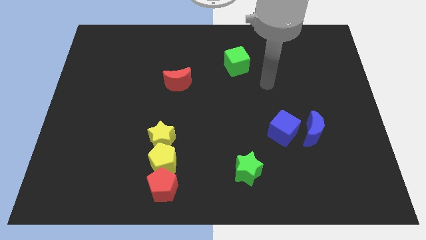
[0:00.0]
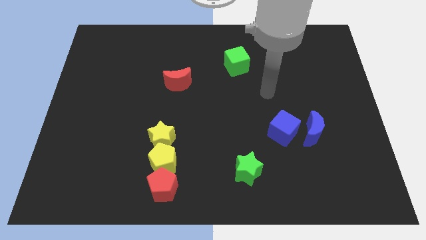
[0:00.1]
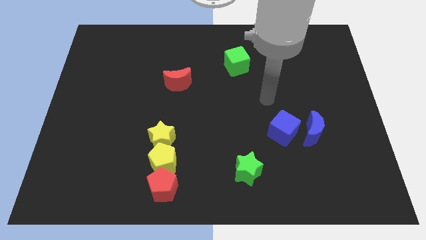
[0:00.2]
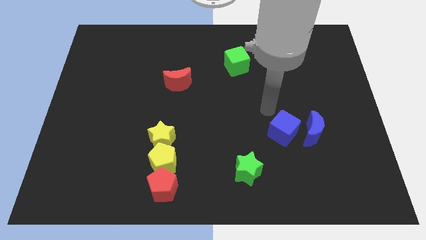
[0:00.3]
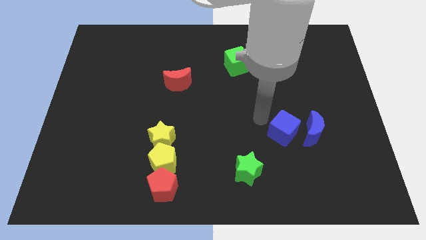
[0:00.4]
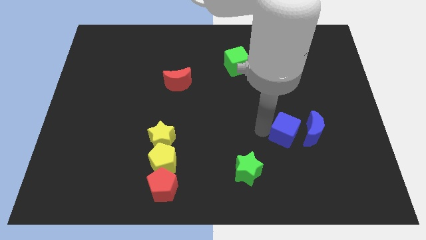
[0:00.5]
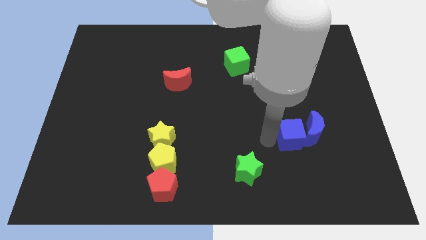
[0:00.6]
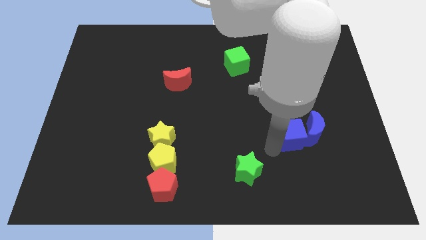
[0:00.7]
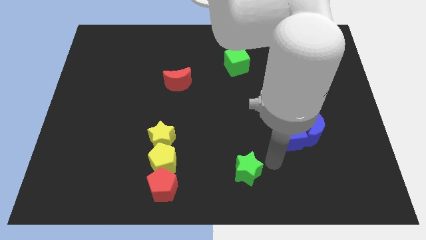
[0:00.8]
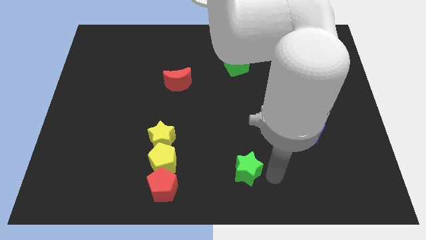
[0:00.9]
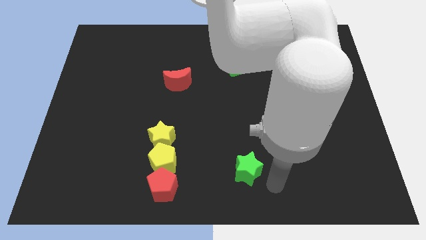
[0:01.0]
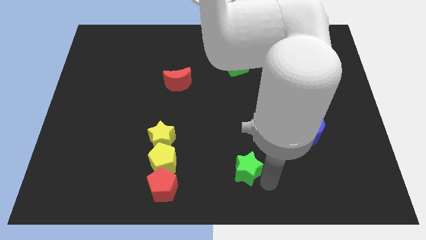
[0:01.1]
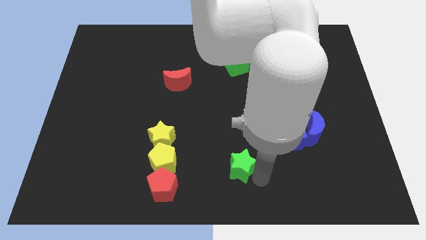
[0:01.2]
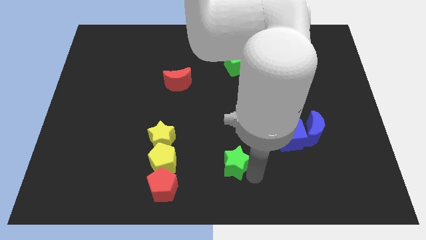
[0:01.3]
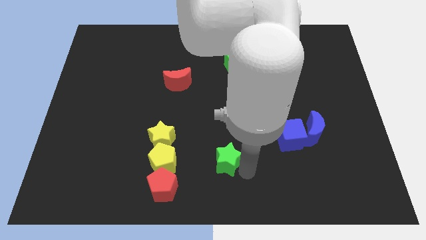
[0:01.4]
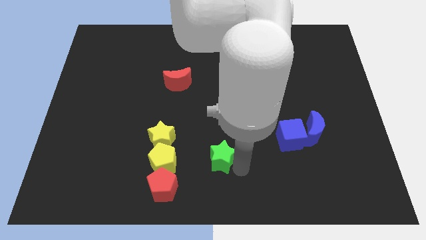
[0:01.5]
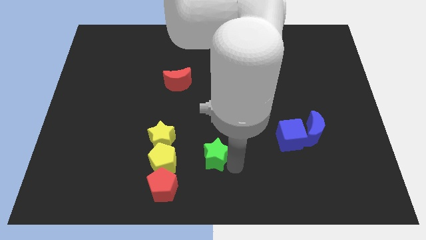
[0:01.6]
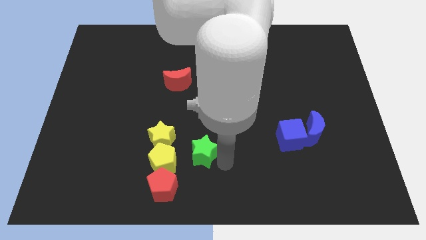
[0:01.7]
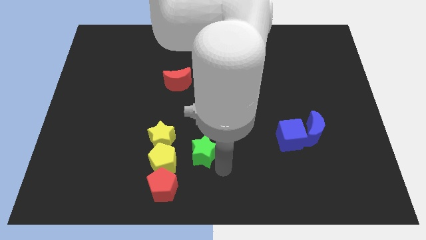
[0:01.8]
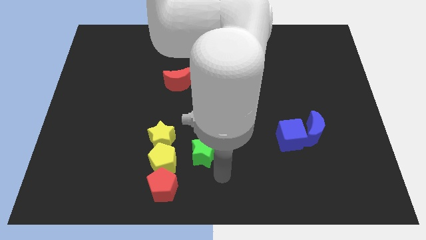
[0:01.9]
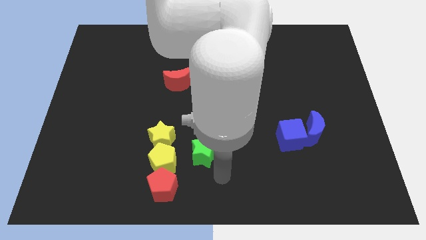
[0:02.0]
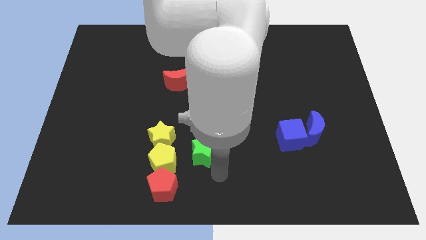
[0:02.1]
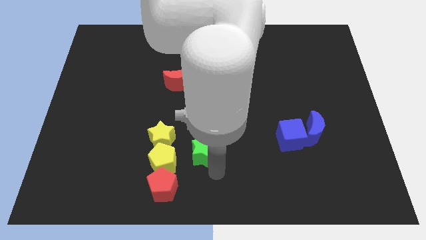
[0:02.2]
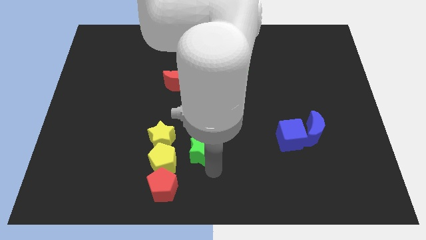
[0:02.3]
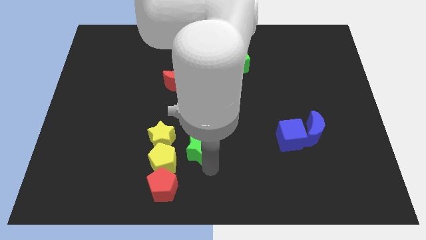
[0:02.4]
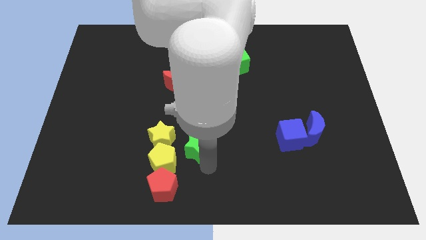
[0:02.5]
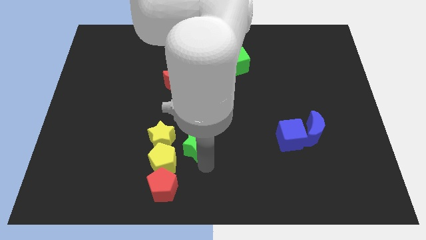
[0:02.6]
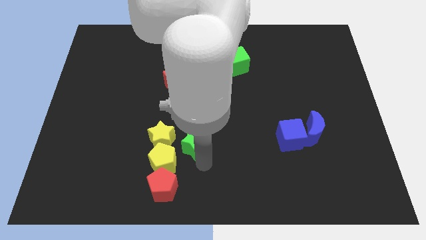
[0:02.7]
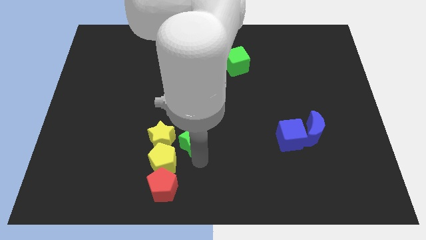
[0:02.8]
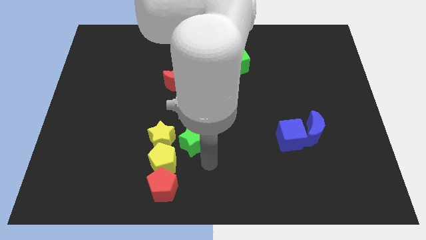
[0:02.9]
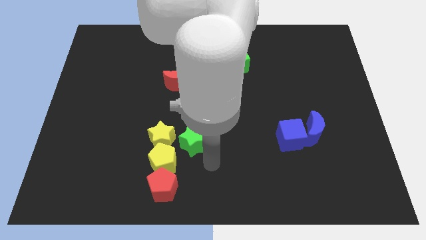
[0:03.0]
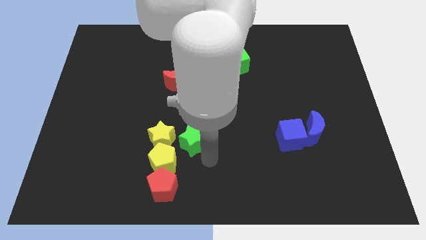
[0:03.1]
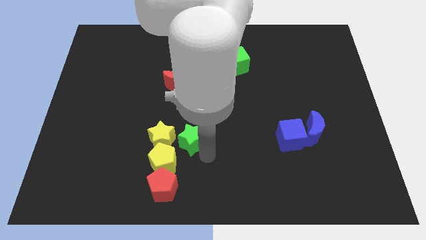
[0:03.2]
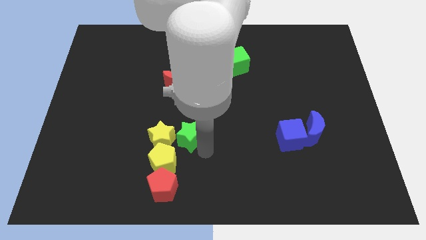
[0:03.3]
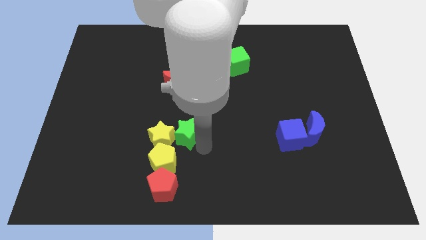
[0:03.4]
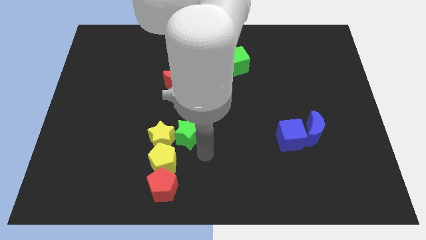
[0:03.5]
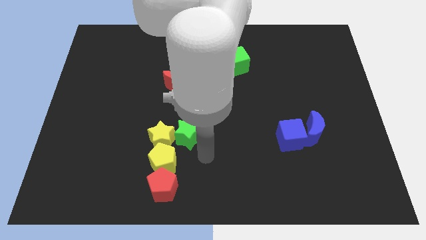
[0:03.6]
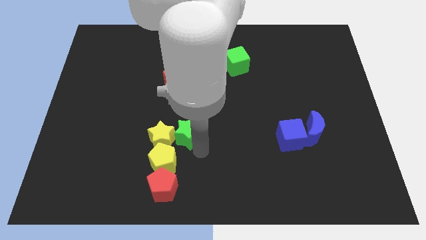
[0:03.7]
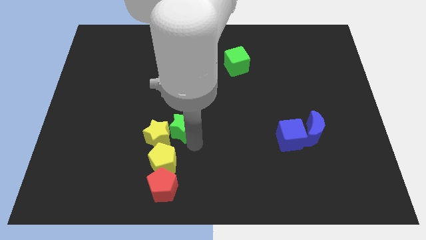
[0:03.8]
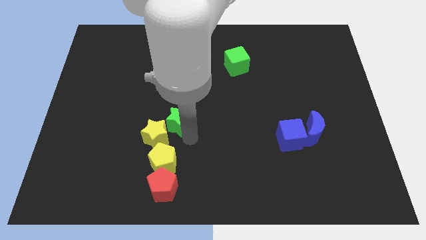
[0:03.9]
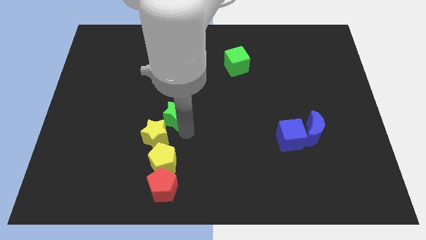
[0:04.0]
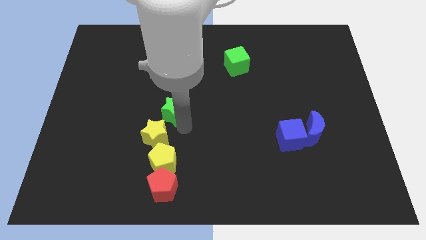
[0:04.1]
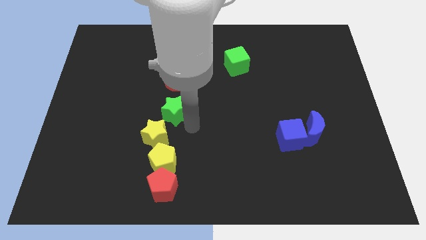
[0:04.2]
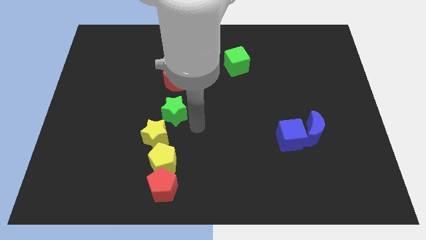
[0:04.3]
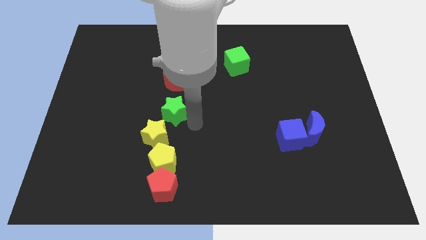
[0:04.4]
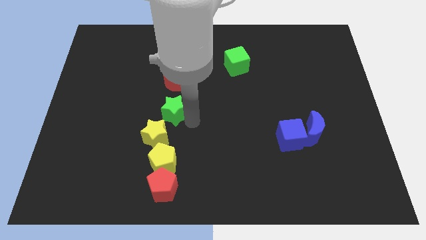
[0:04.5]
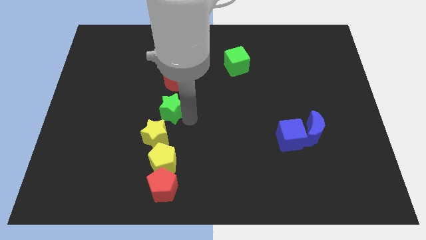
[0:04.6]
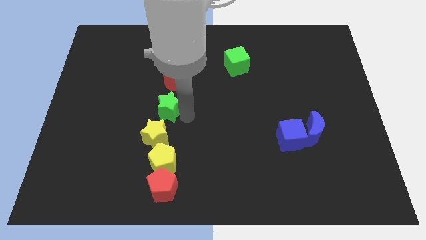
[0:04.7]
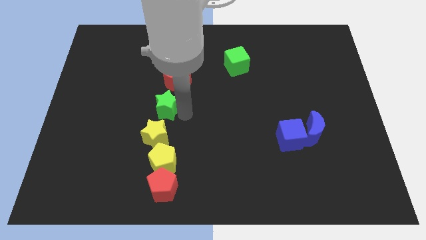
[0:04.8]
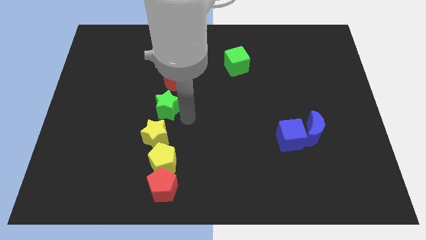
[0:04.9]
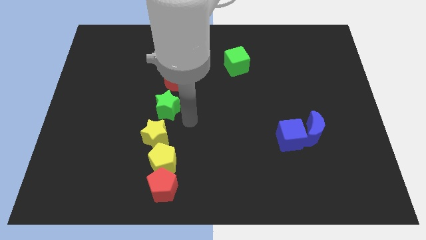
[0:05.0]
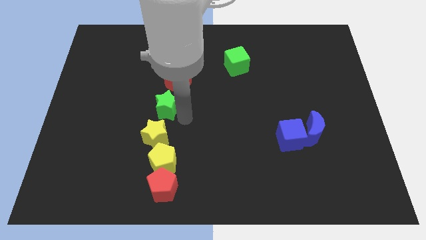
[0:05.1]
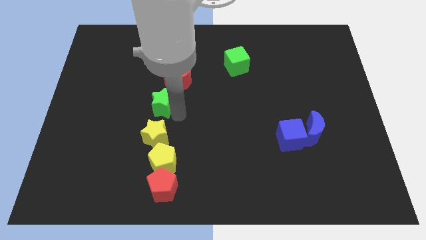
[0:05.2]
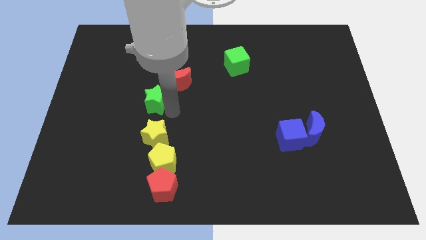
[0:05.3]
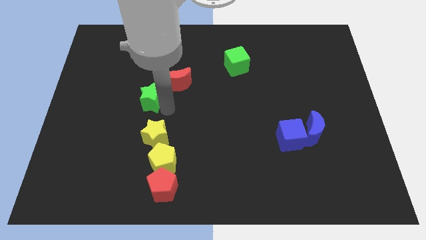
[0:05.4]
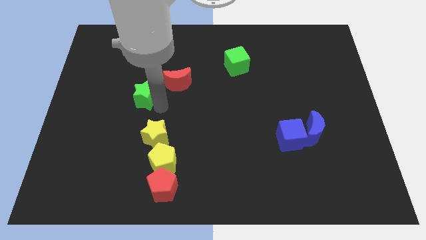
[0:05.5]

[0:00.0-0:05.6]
put the green star left of the red moon

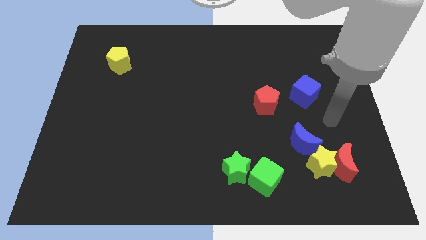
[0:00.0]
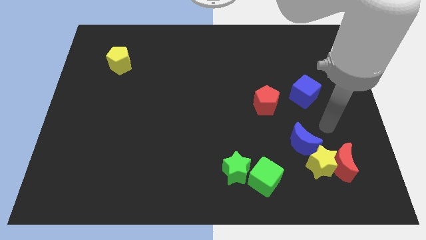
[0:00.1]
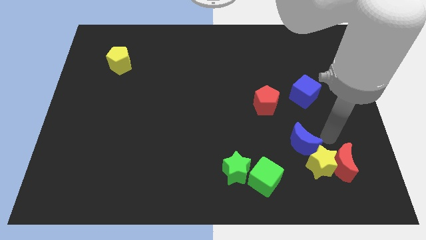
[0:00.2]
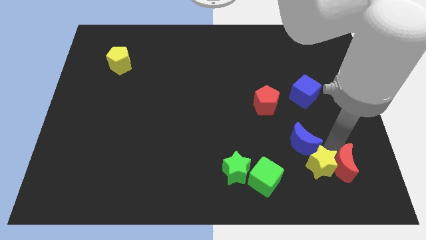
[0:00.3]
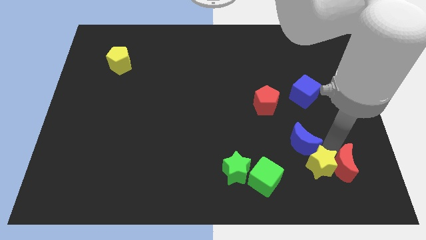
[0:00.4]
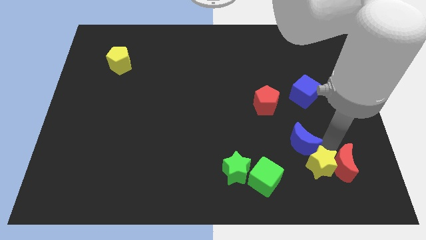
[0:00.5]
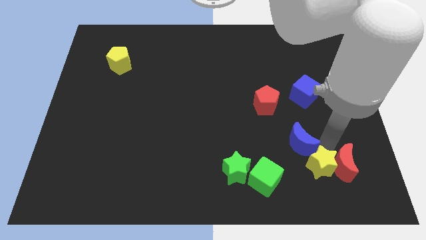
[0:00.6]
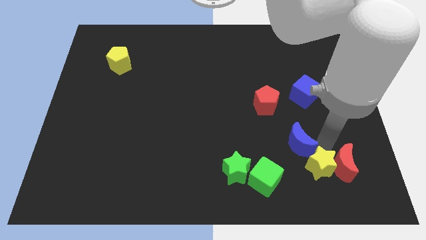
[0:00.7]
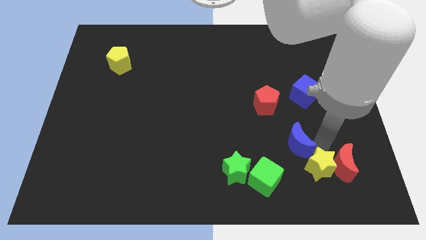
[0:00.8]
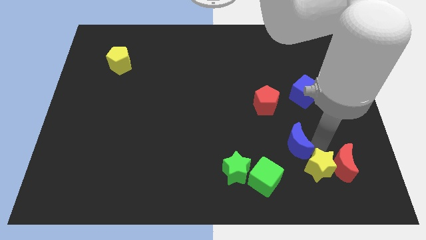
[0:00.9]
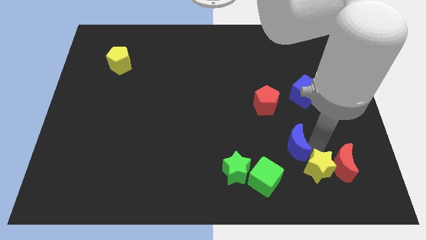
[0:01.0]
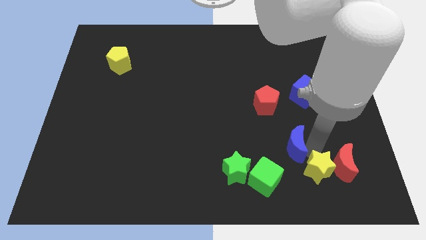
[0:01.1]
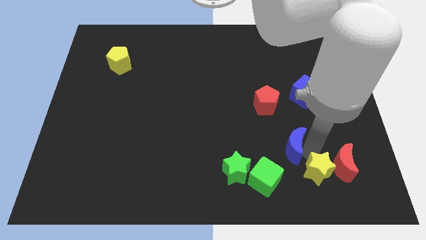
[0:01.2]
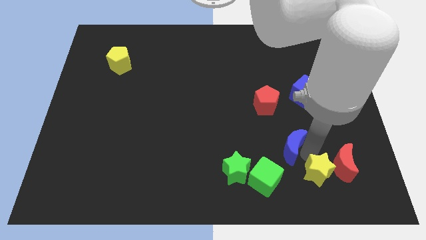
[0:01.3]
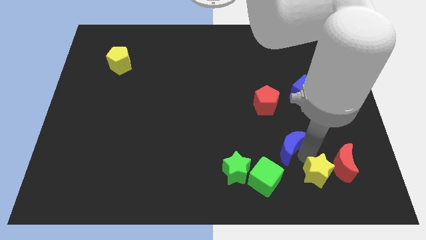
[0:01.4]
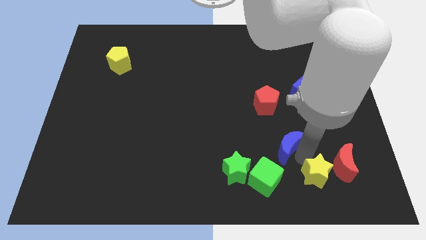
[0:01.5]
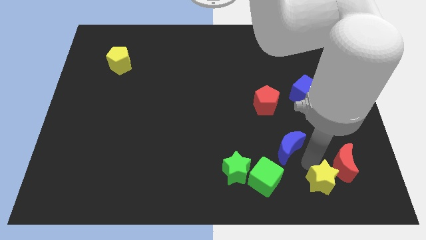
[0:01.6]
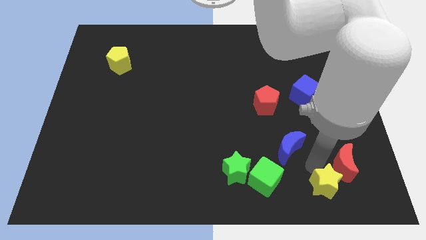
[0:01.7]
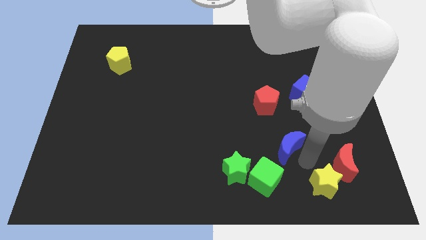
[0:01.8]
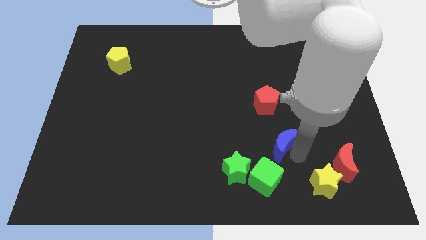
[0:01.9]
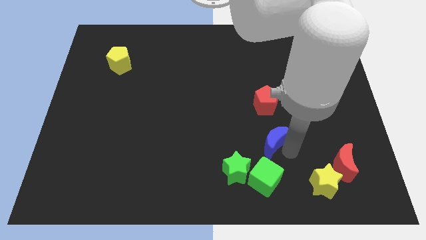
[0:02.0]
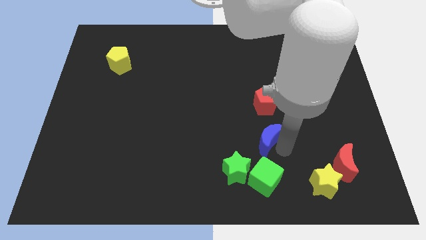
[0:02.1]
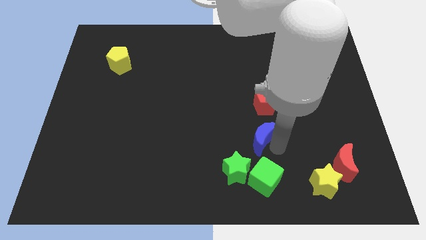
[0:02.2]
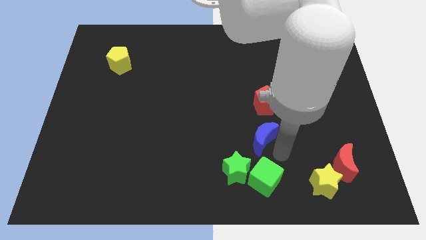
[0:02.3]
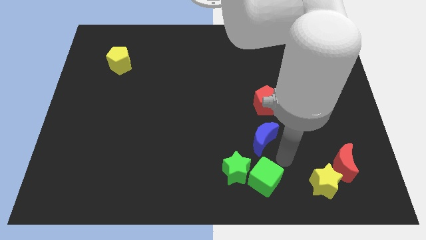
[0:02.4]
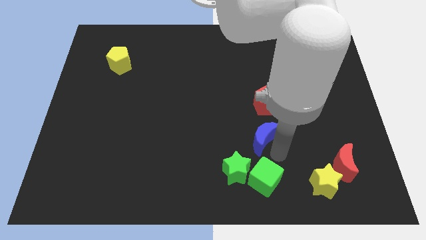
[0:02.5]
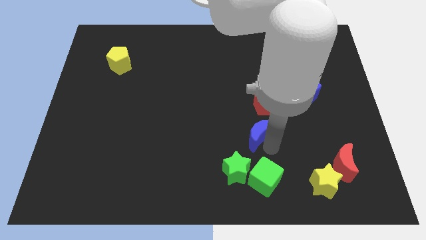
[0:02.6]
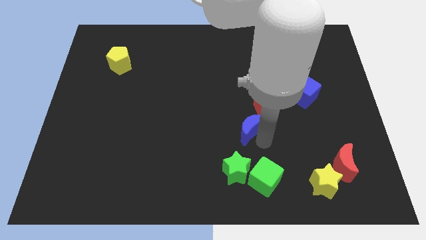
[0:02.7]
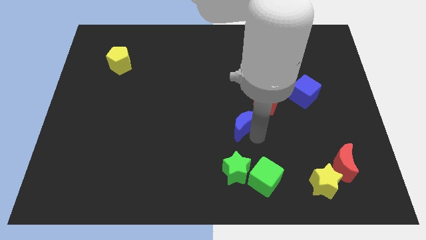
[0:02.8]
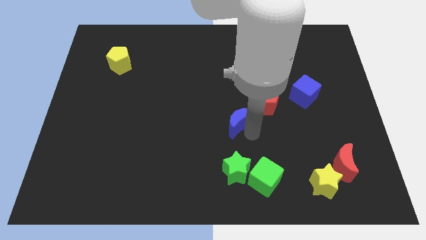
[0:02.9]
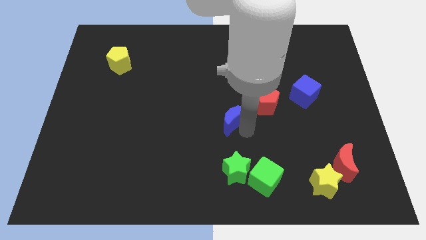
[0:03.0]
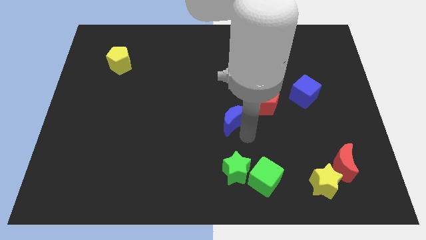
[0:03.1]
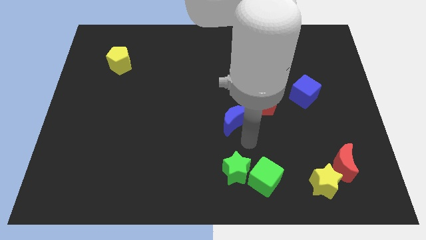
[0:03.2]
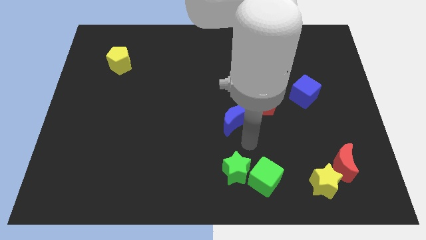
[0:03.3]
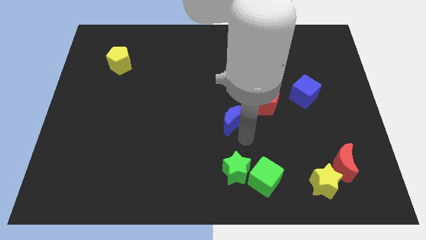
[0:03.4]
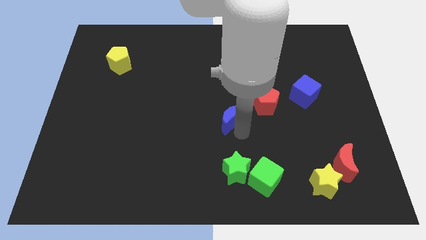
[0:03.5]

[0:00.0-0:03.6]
put the blue moon just left of the red pentagon
